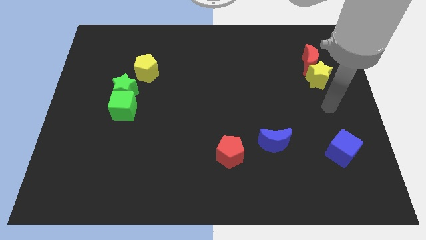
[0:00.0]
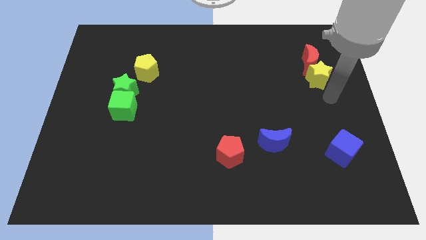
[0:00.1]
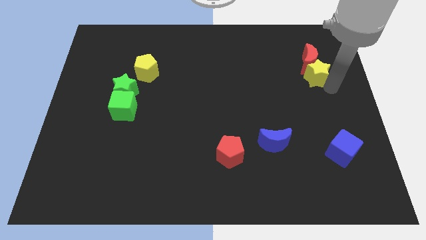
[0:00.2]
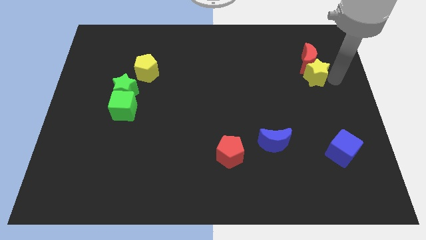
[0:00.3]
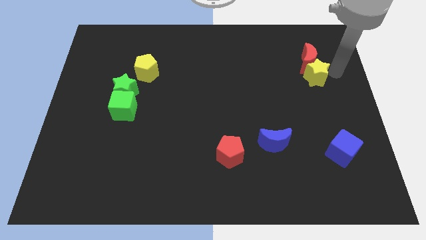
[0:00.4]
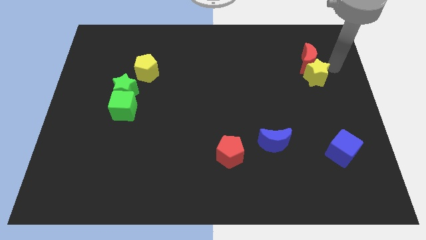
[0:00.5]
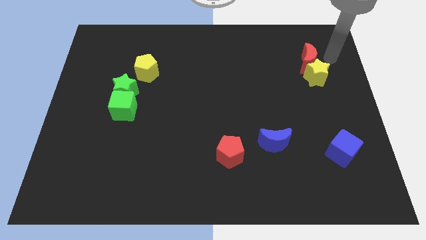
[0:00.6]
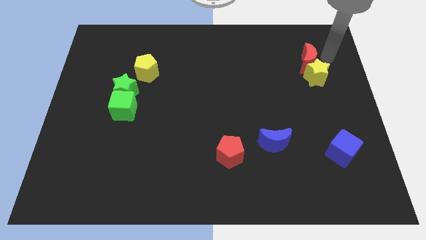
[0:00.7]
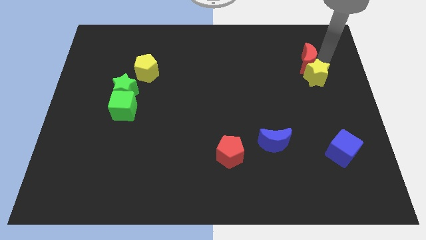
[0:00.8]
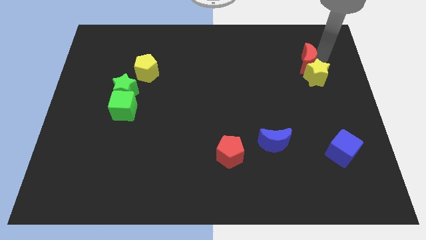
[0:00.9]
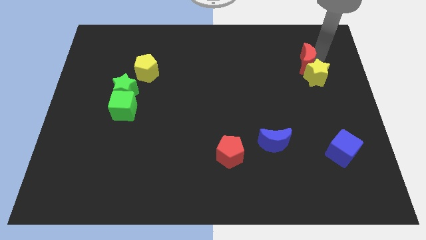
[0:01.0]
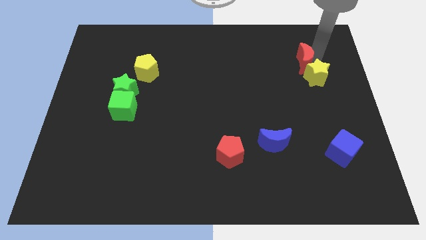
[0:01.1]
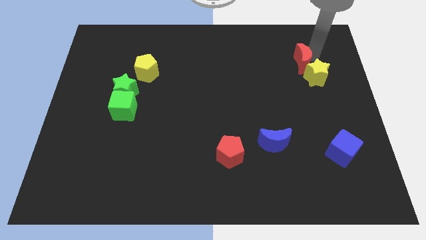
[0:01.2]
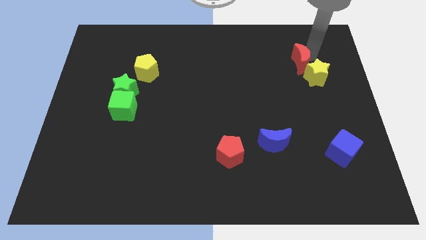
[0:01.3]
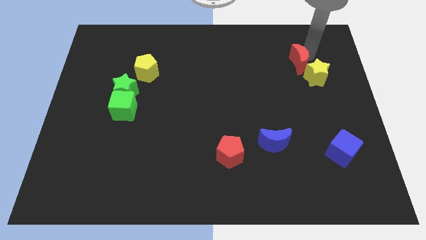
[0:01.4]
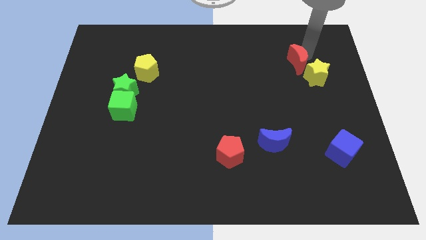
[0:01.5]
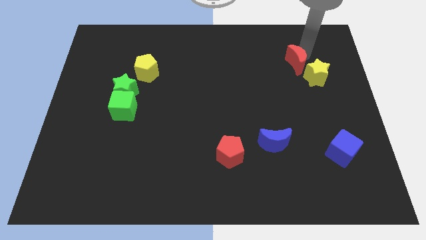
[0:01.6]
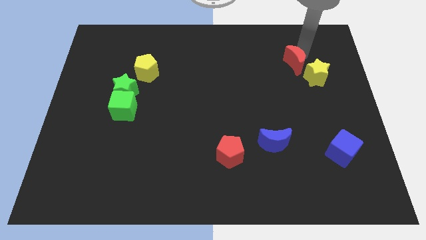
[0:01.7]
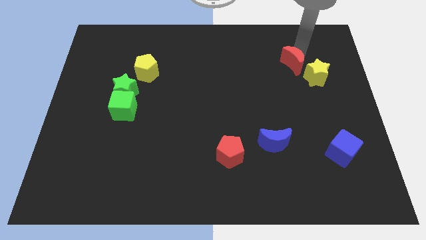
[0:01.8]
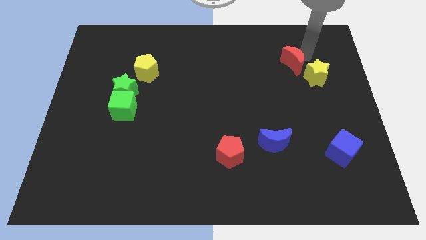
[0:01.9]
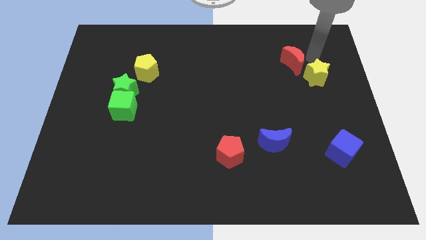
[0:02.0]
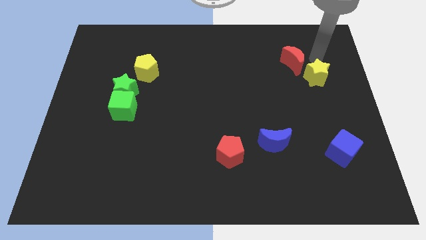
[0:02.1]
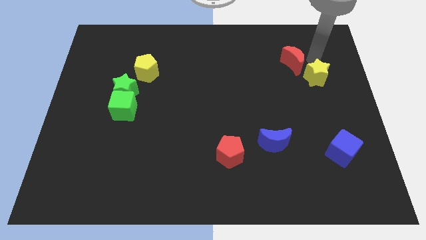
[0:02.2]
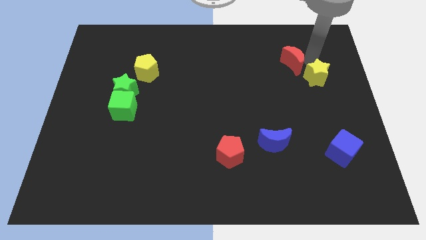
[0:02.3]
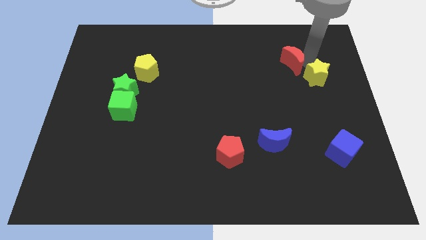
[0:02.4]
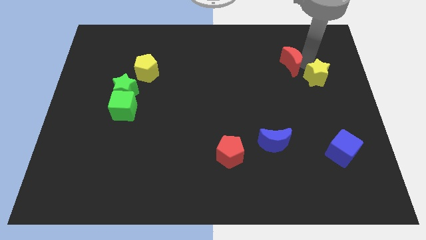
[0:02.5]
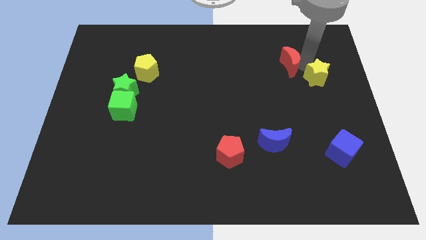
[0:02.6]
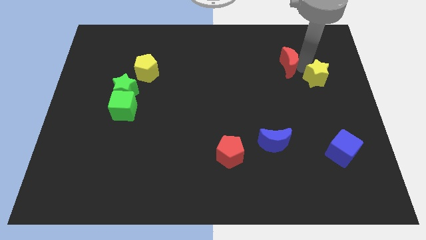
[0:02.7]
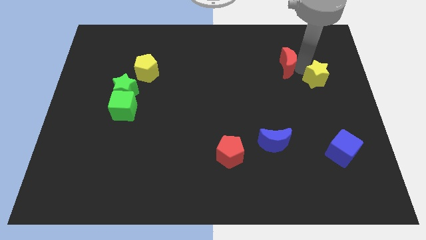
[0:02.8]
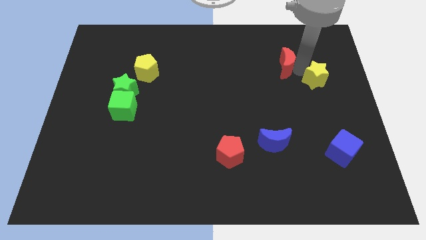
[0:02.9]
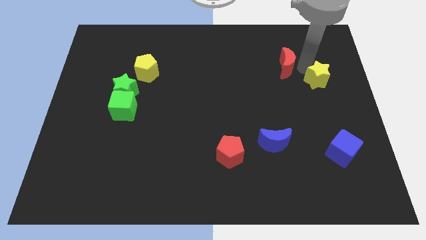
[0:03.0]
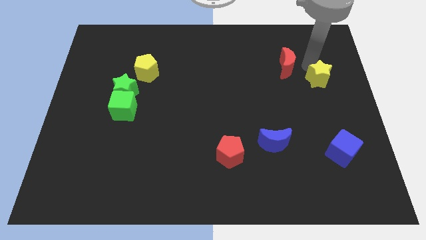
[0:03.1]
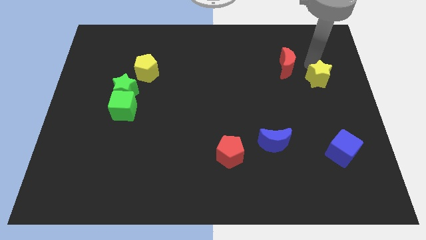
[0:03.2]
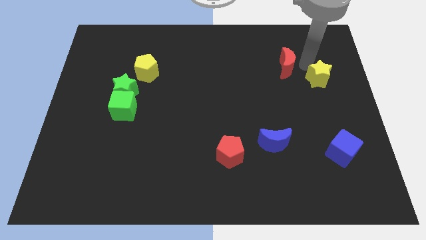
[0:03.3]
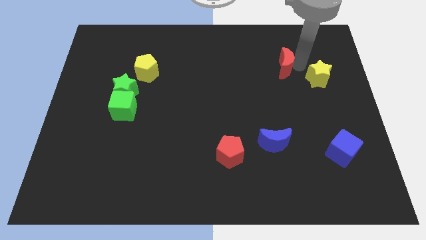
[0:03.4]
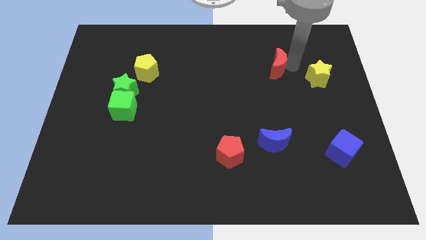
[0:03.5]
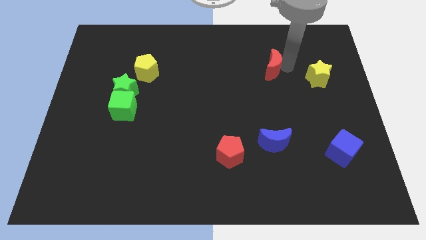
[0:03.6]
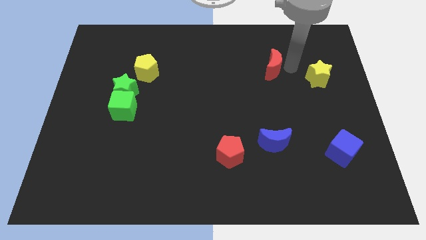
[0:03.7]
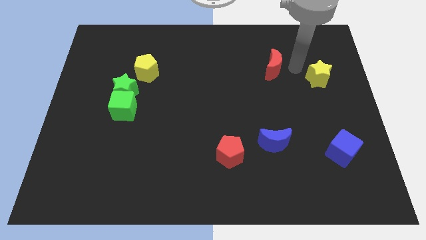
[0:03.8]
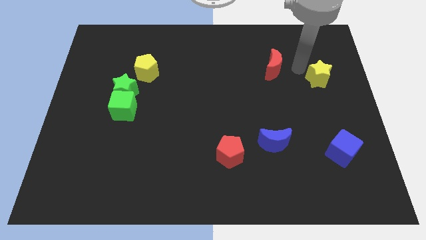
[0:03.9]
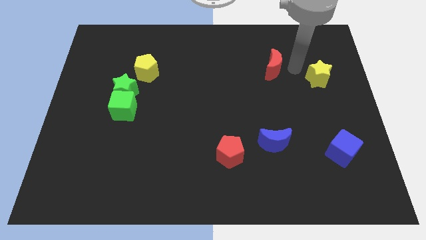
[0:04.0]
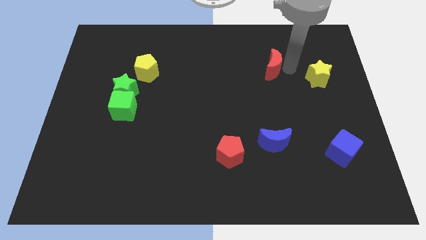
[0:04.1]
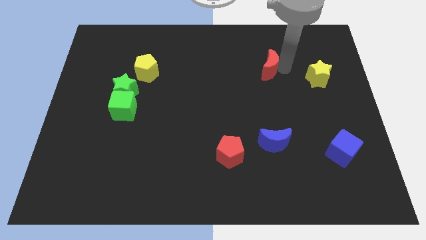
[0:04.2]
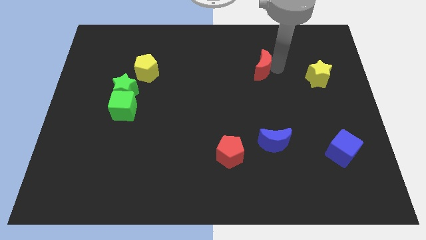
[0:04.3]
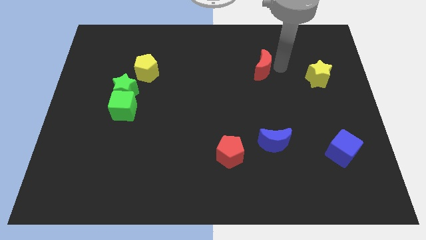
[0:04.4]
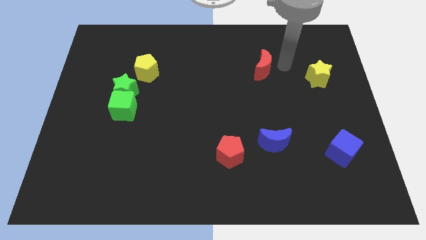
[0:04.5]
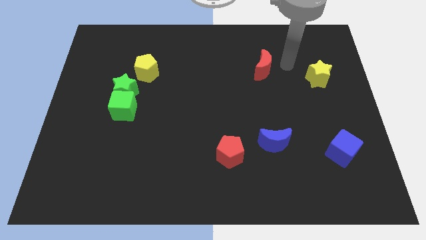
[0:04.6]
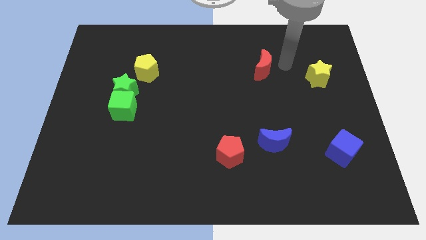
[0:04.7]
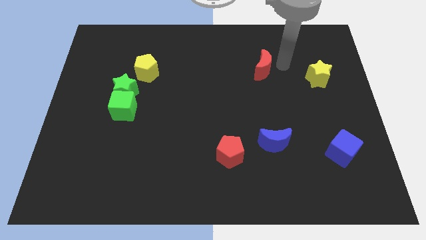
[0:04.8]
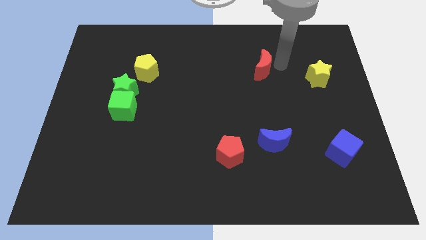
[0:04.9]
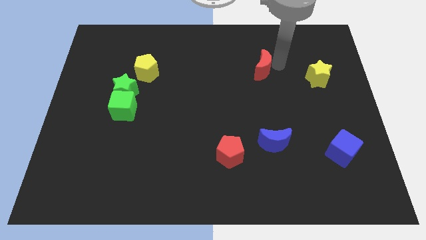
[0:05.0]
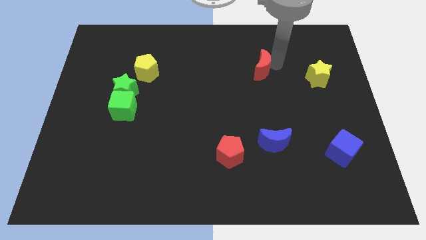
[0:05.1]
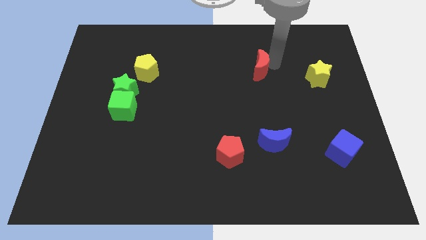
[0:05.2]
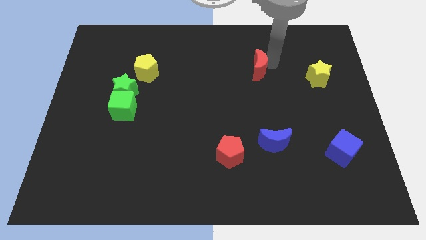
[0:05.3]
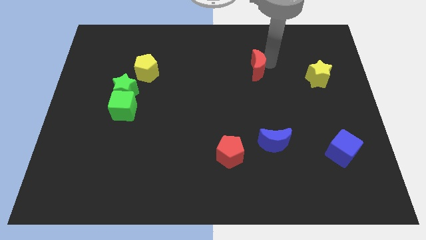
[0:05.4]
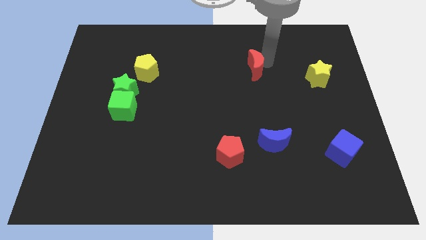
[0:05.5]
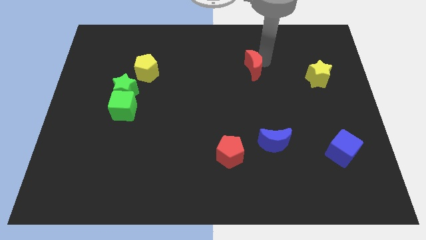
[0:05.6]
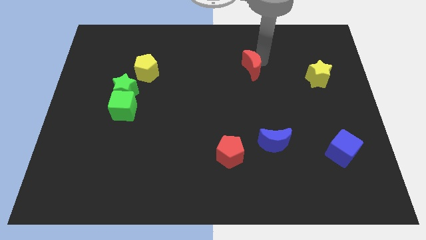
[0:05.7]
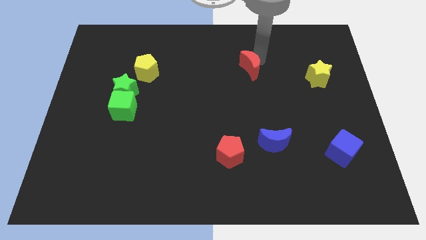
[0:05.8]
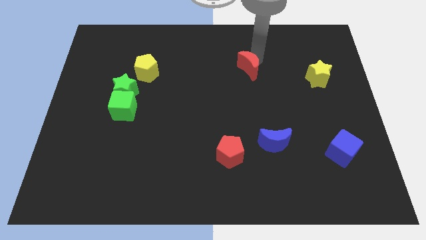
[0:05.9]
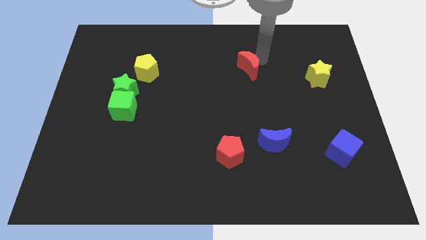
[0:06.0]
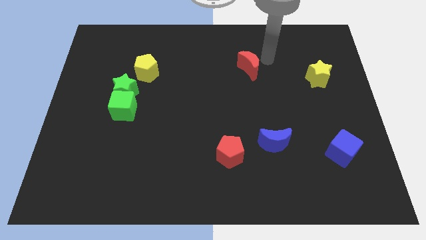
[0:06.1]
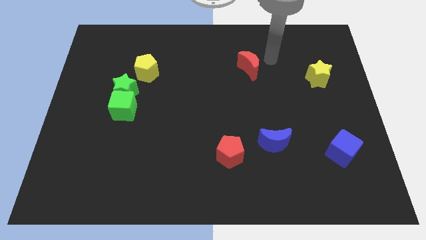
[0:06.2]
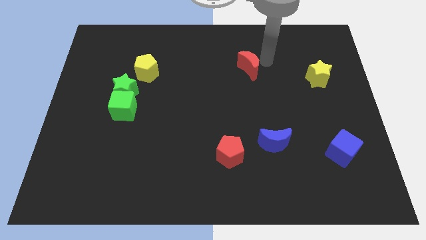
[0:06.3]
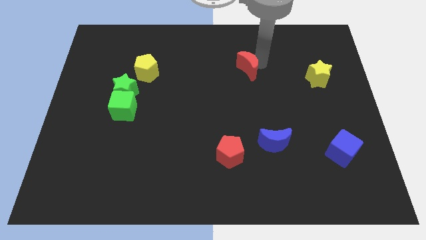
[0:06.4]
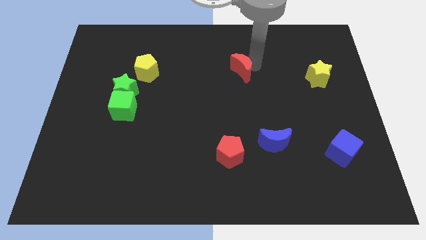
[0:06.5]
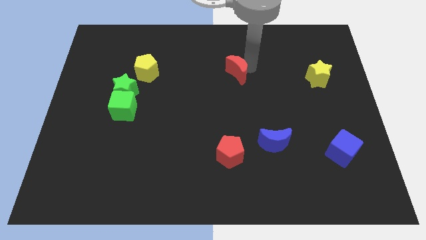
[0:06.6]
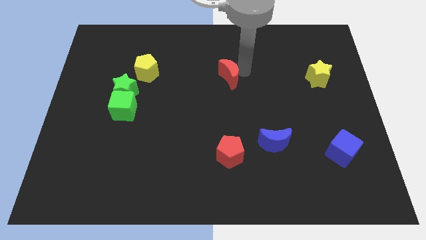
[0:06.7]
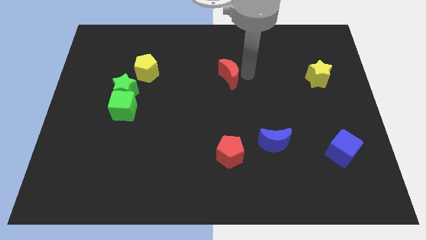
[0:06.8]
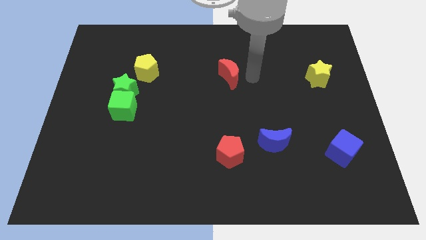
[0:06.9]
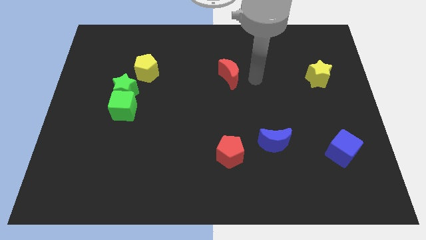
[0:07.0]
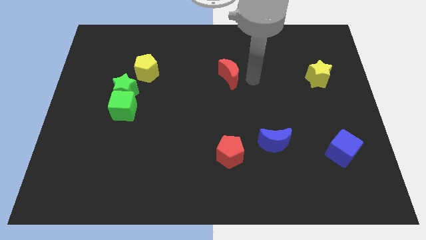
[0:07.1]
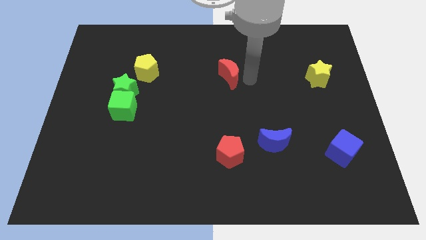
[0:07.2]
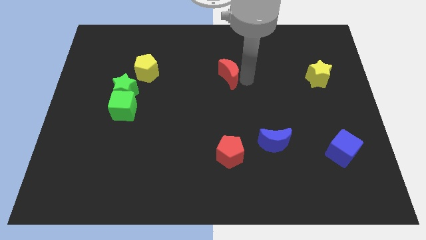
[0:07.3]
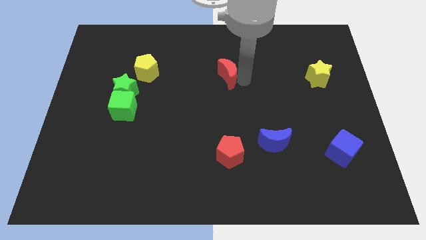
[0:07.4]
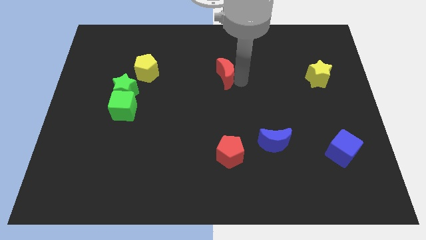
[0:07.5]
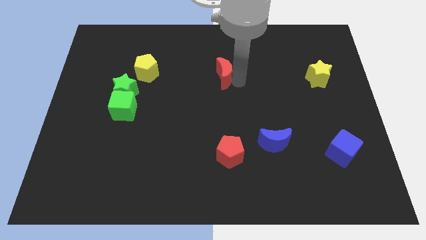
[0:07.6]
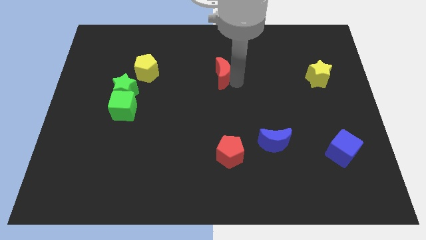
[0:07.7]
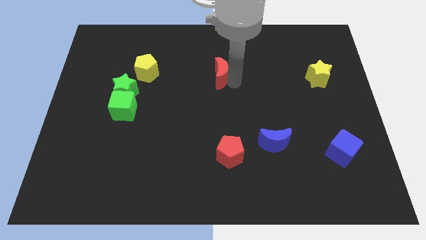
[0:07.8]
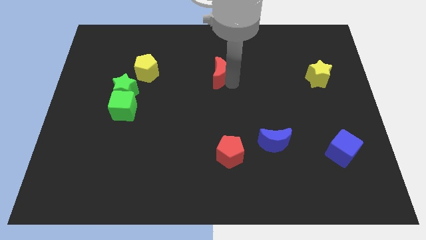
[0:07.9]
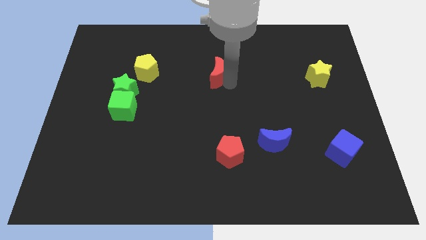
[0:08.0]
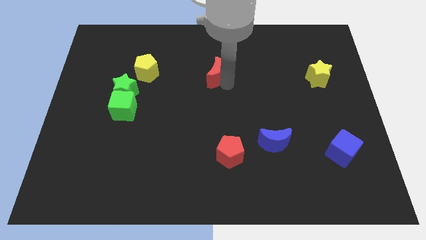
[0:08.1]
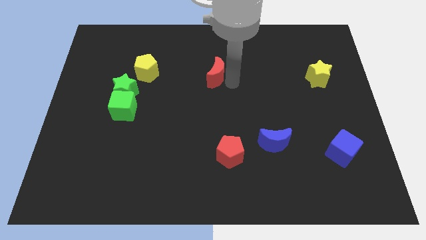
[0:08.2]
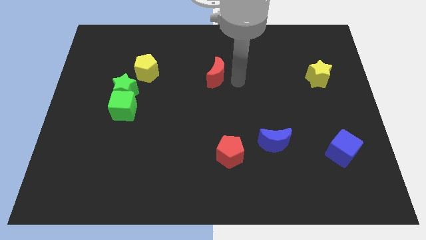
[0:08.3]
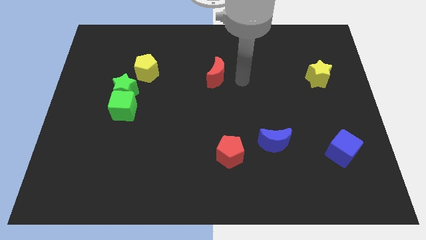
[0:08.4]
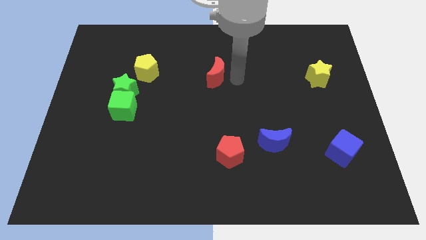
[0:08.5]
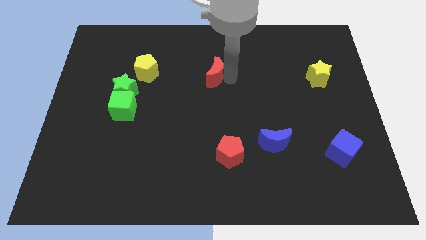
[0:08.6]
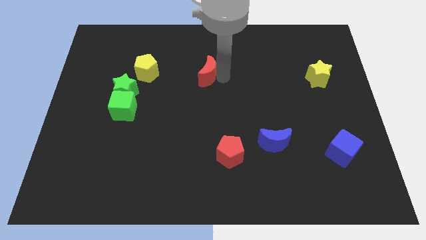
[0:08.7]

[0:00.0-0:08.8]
push the red moon to the right side of the yellow pentagon
